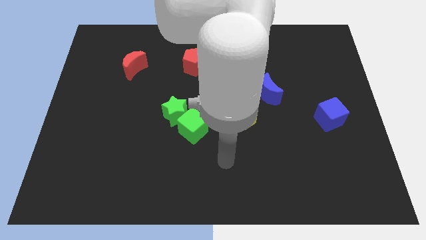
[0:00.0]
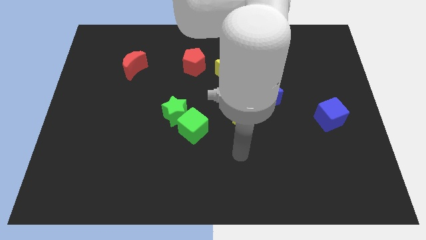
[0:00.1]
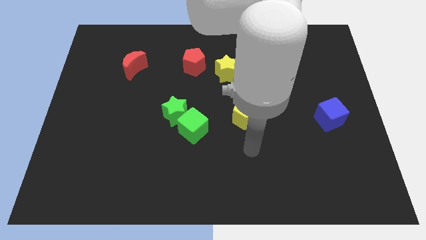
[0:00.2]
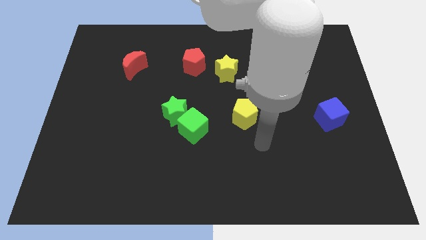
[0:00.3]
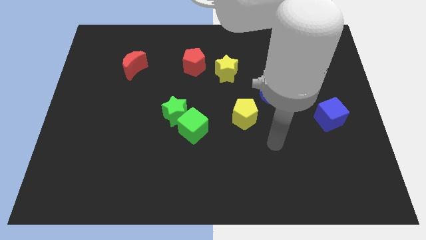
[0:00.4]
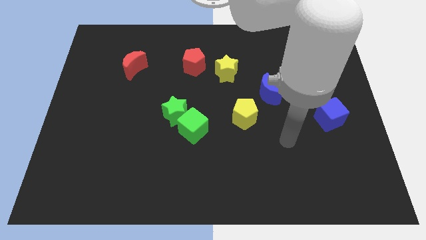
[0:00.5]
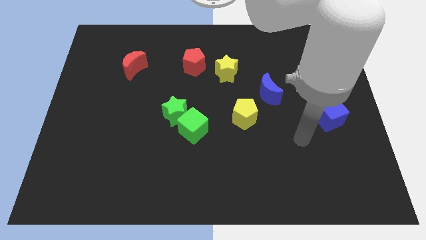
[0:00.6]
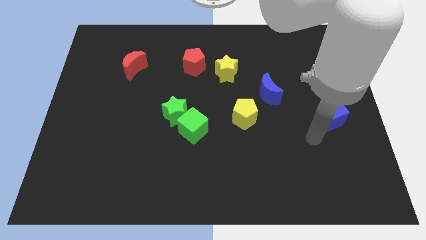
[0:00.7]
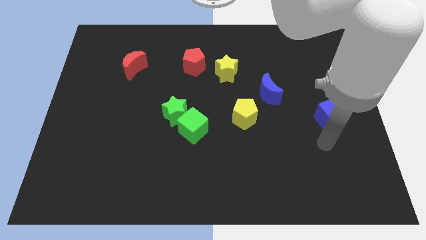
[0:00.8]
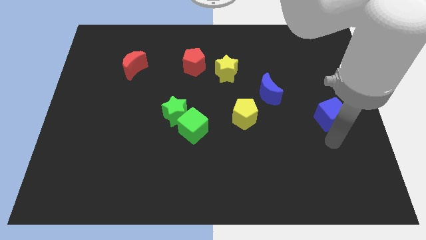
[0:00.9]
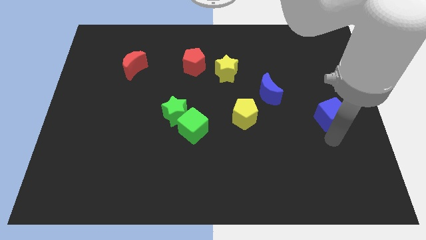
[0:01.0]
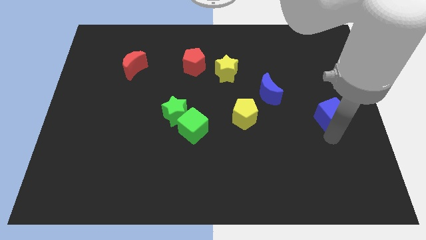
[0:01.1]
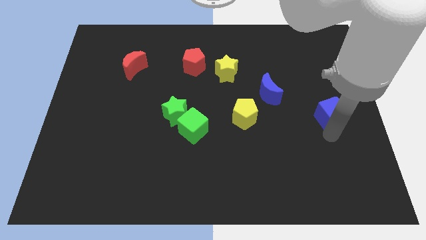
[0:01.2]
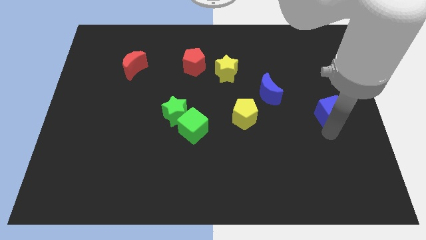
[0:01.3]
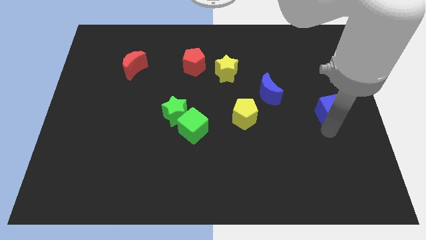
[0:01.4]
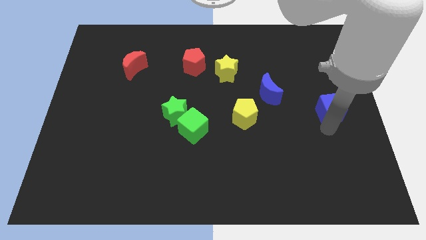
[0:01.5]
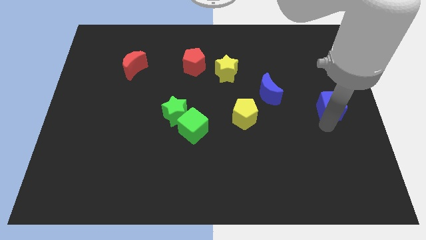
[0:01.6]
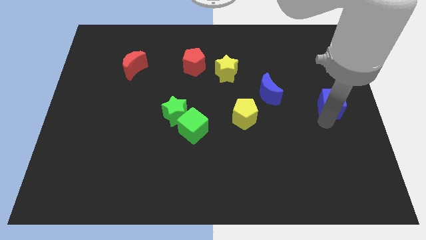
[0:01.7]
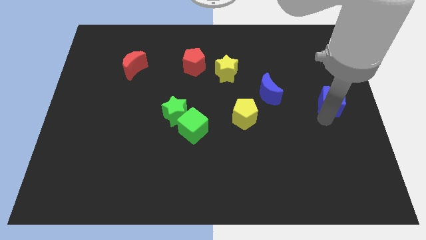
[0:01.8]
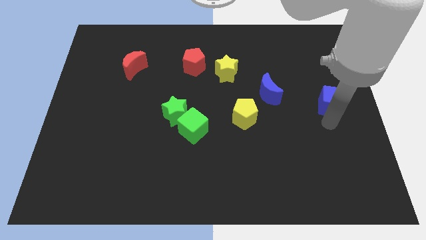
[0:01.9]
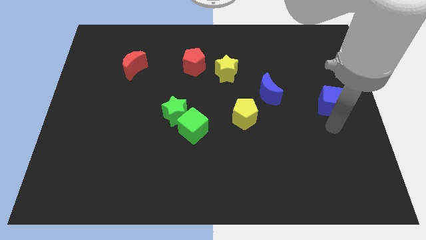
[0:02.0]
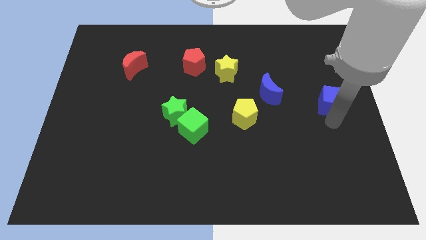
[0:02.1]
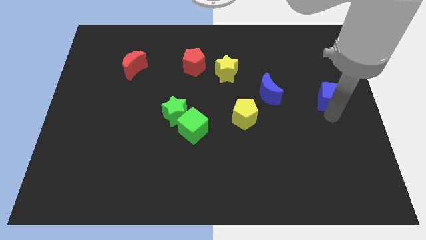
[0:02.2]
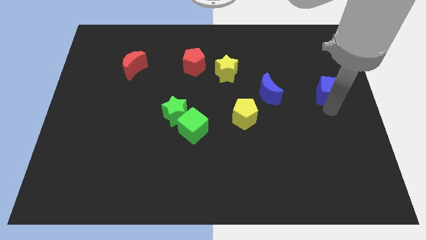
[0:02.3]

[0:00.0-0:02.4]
slightly slide the blue cube up

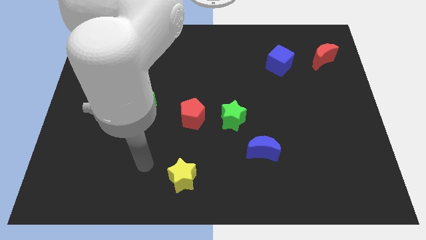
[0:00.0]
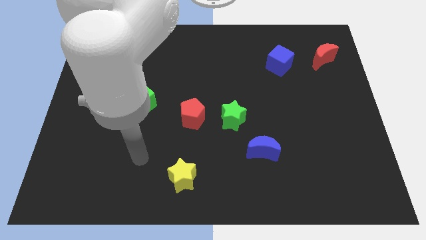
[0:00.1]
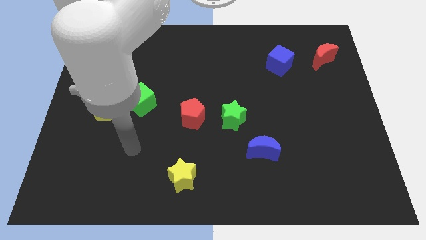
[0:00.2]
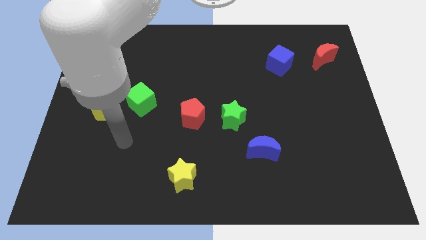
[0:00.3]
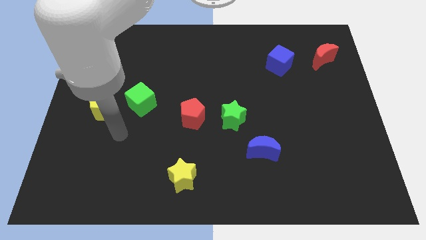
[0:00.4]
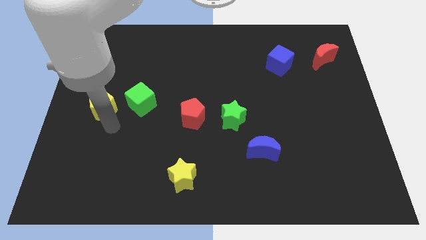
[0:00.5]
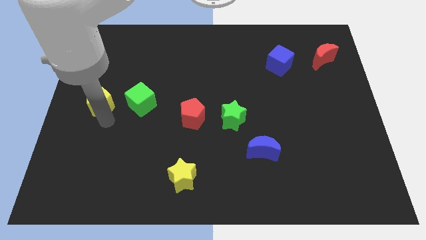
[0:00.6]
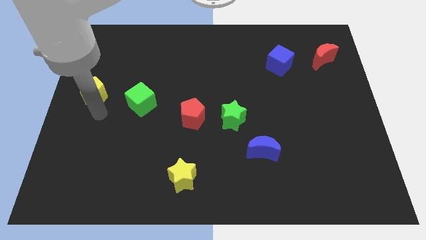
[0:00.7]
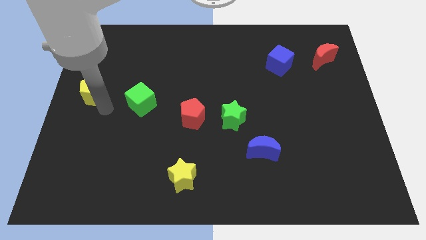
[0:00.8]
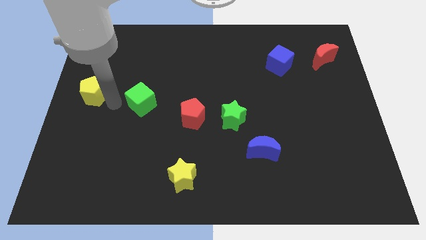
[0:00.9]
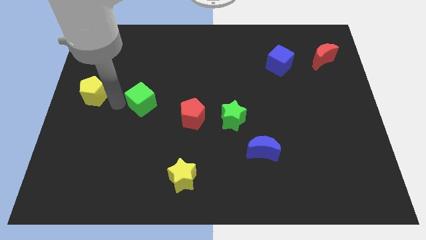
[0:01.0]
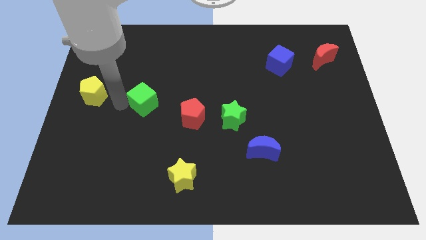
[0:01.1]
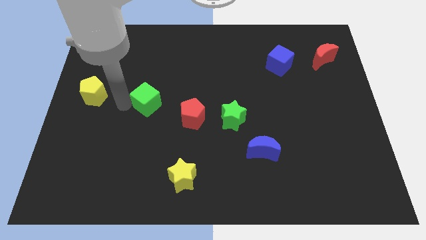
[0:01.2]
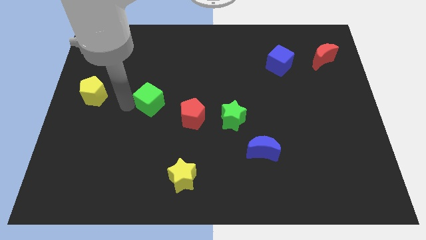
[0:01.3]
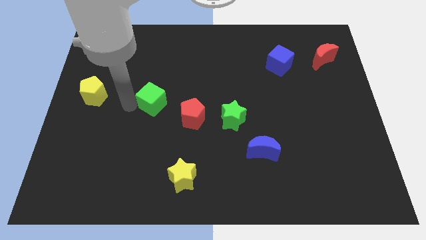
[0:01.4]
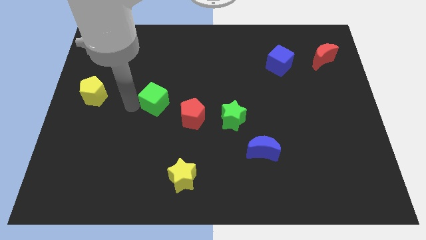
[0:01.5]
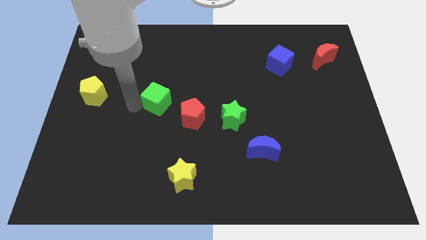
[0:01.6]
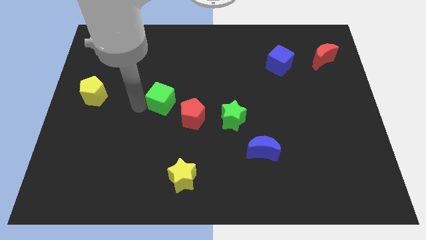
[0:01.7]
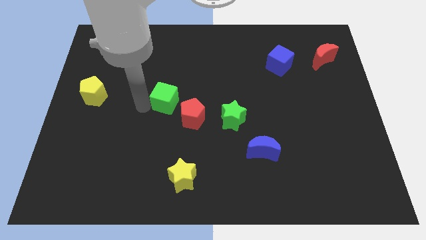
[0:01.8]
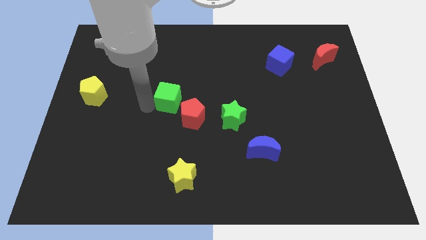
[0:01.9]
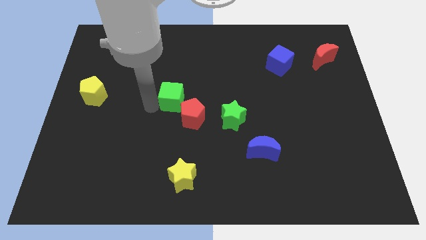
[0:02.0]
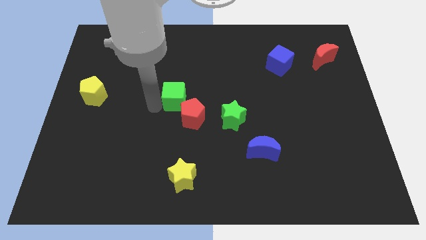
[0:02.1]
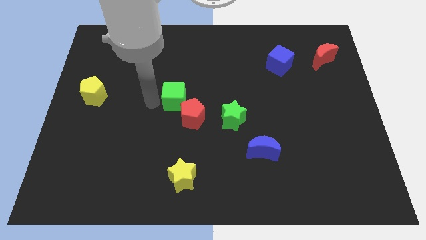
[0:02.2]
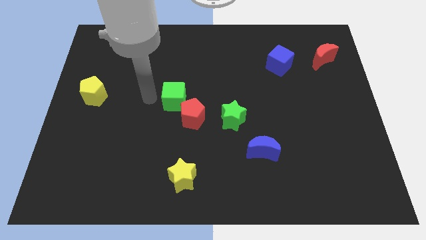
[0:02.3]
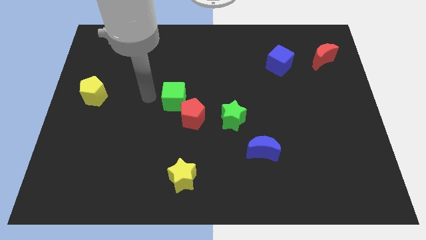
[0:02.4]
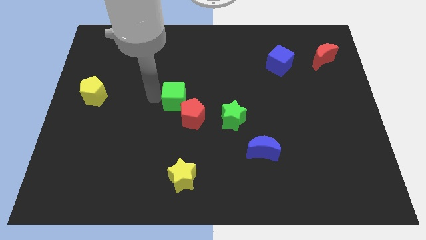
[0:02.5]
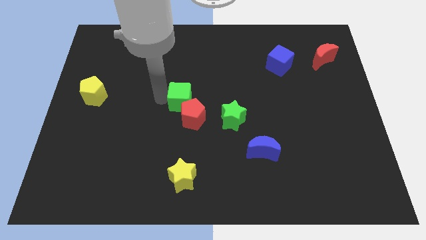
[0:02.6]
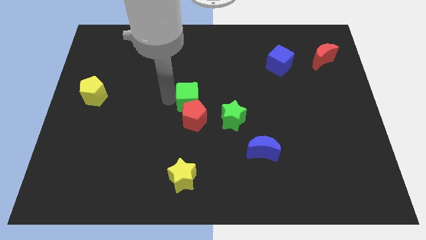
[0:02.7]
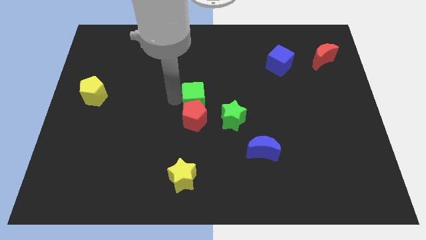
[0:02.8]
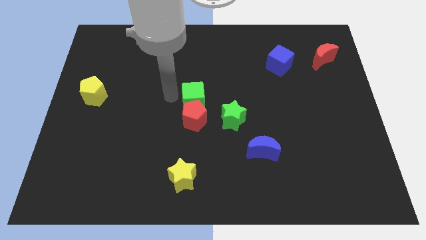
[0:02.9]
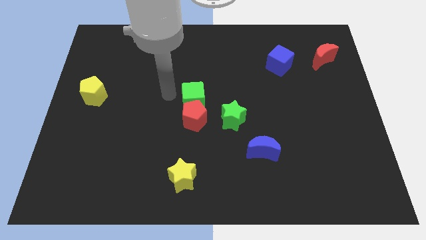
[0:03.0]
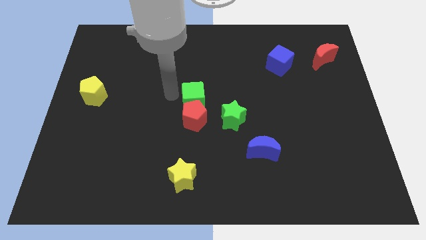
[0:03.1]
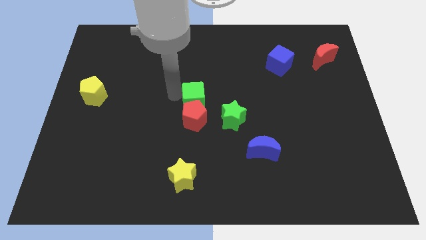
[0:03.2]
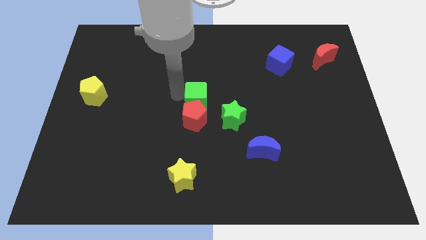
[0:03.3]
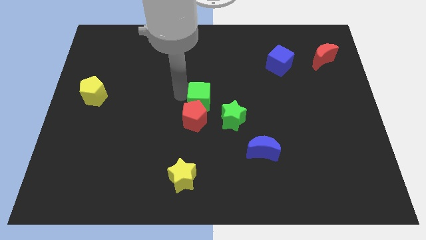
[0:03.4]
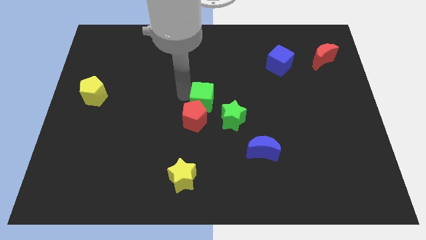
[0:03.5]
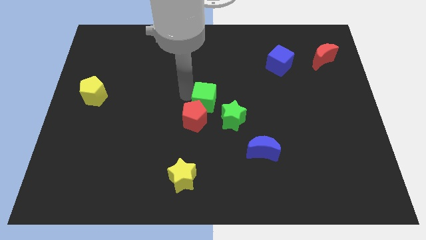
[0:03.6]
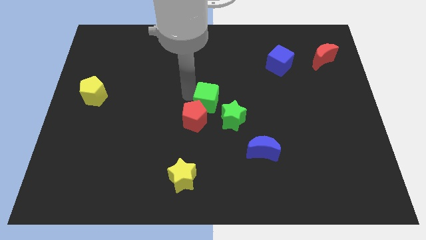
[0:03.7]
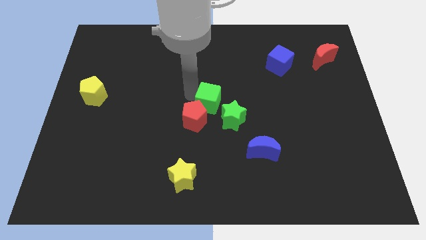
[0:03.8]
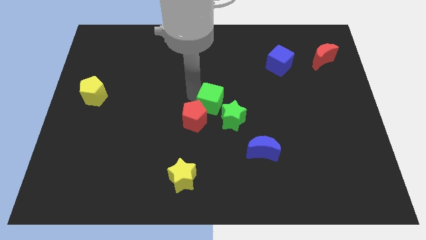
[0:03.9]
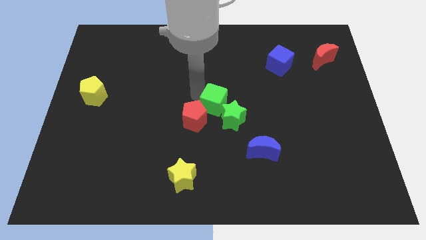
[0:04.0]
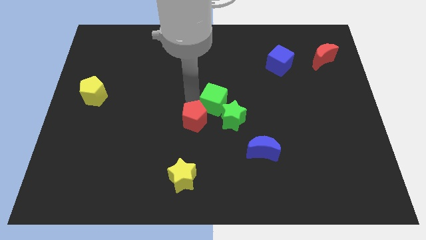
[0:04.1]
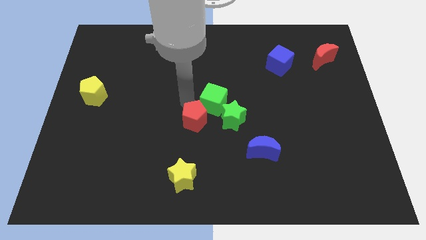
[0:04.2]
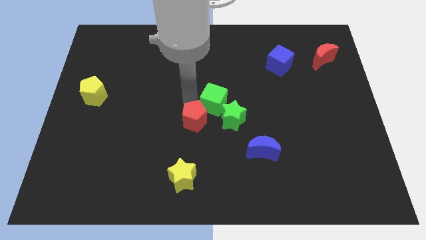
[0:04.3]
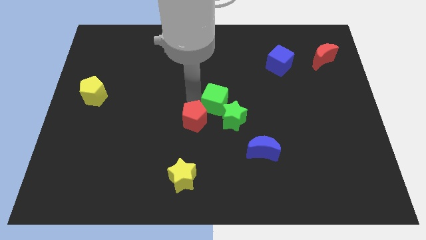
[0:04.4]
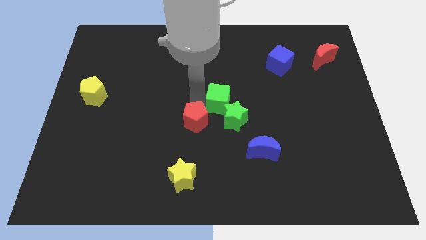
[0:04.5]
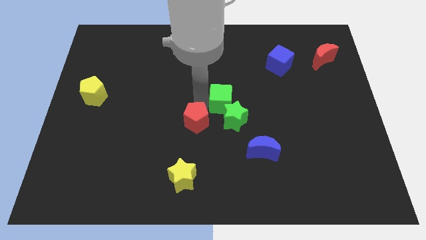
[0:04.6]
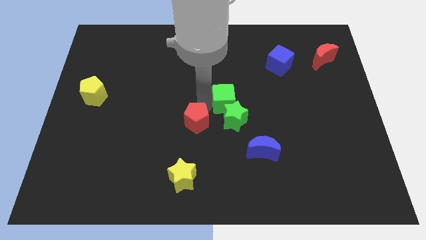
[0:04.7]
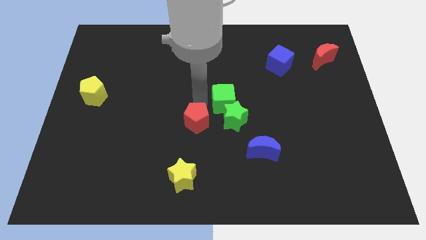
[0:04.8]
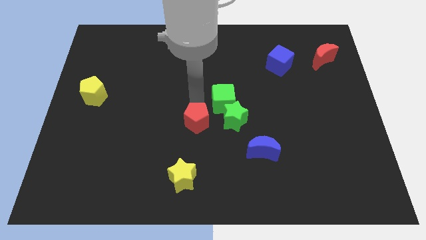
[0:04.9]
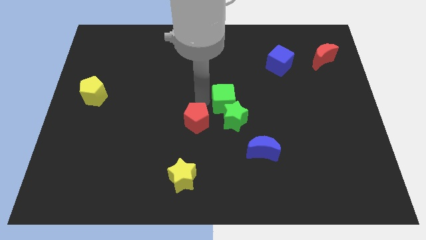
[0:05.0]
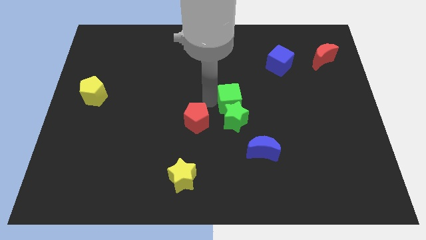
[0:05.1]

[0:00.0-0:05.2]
slide the green cube to the right

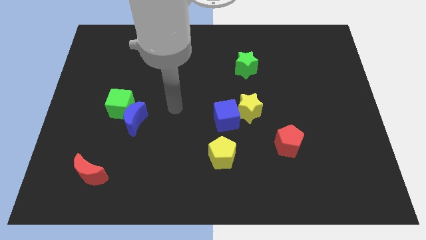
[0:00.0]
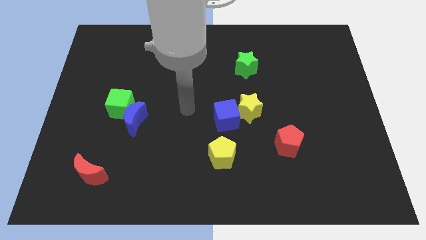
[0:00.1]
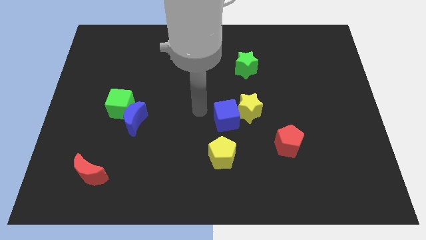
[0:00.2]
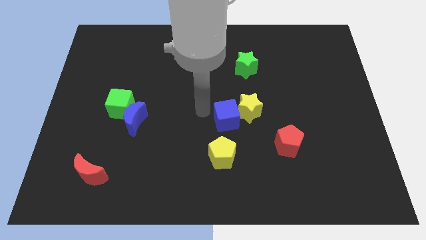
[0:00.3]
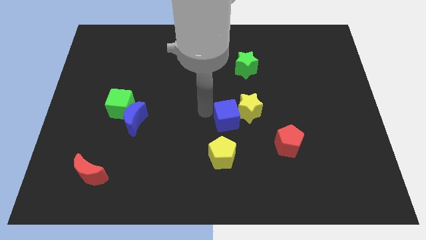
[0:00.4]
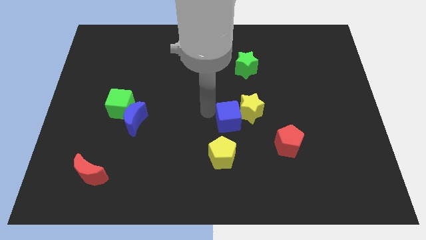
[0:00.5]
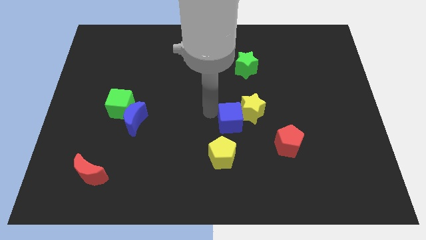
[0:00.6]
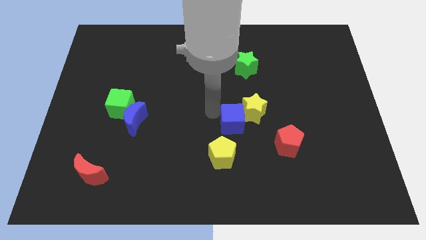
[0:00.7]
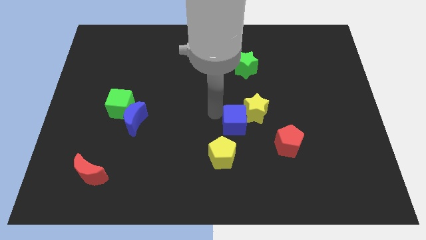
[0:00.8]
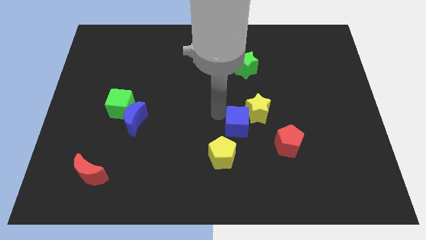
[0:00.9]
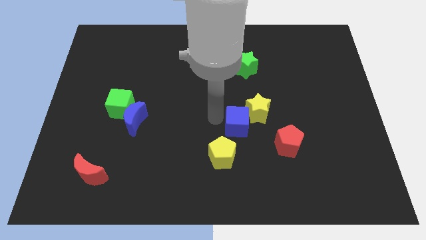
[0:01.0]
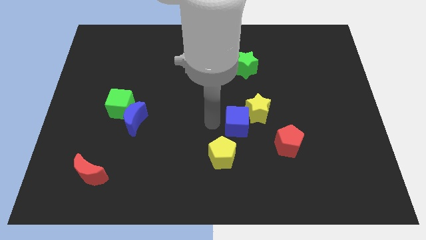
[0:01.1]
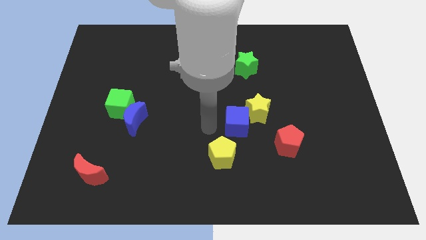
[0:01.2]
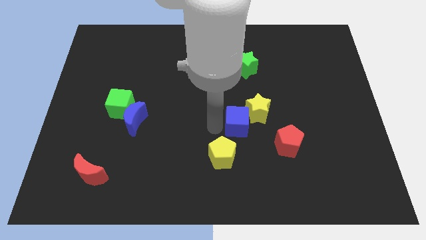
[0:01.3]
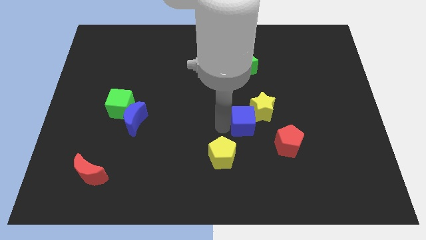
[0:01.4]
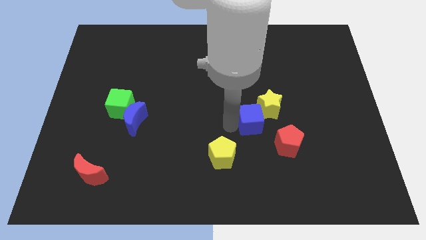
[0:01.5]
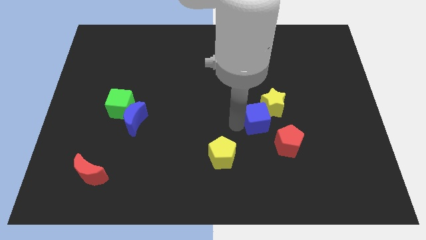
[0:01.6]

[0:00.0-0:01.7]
move the blue cube right a little
